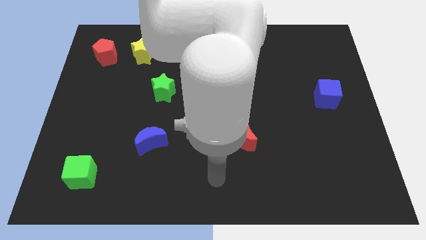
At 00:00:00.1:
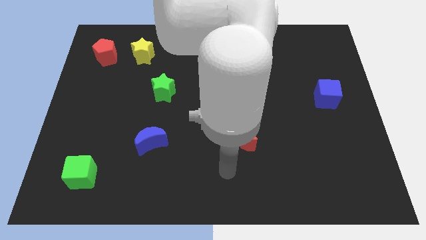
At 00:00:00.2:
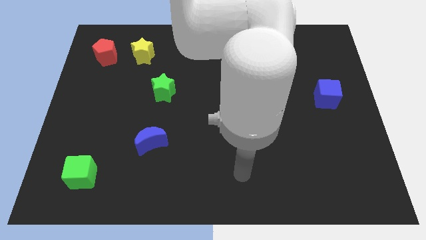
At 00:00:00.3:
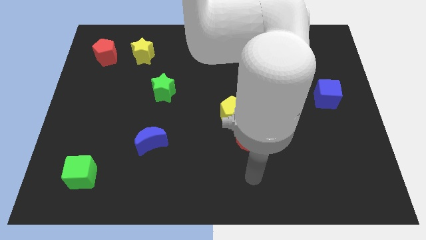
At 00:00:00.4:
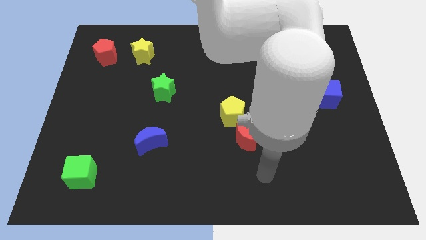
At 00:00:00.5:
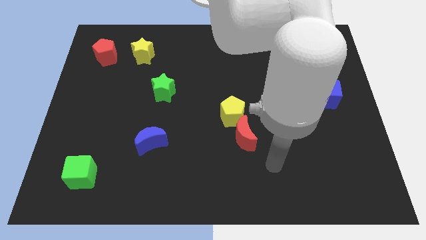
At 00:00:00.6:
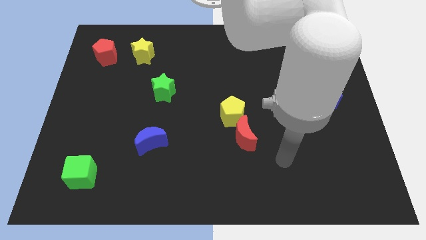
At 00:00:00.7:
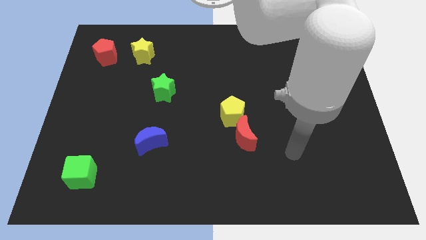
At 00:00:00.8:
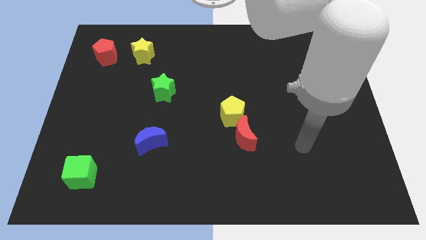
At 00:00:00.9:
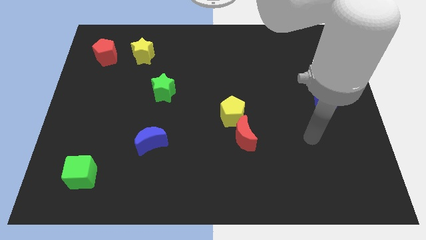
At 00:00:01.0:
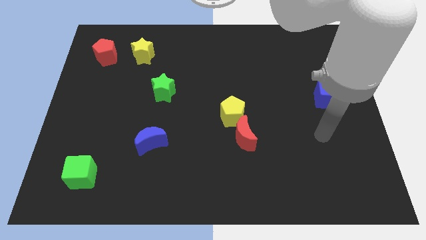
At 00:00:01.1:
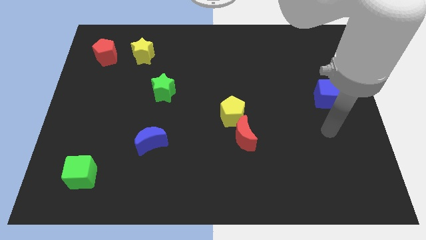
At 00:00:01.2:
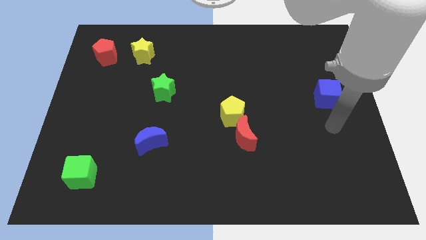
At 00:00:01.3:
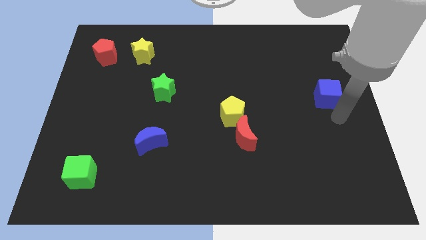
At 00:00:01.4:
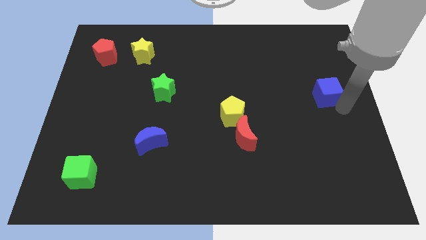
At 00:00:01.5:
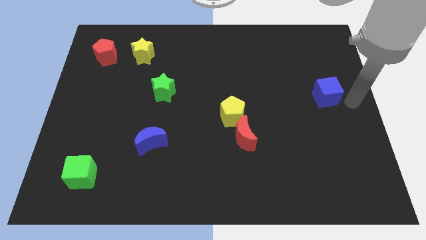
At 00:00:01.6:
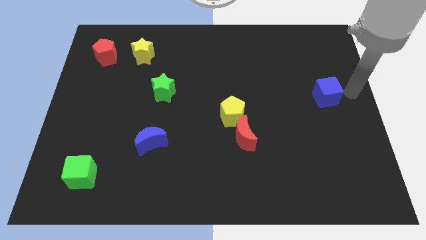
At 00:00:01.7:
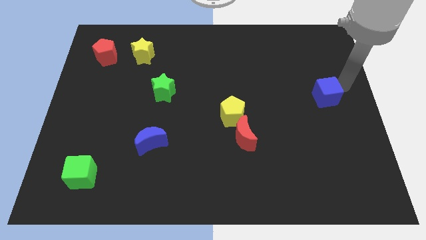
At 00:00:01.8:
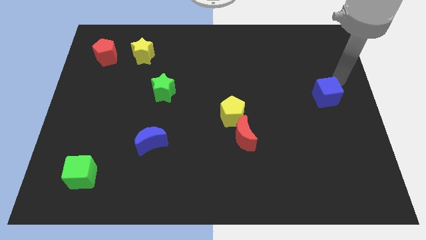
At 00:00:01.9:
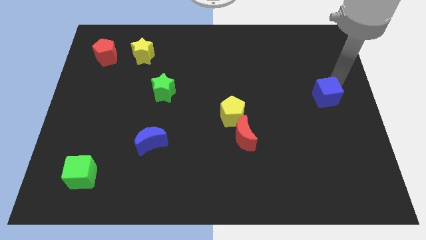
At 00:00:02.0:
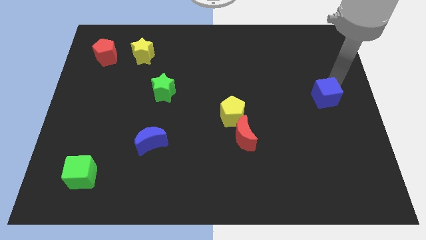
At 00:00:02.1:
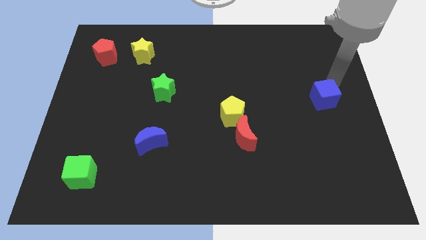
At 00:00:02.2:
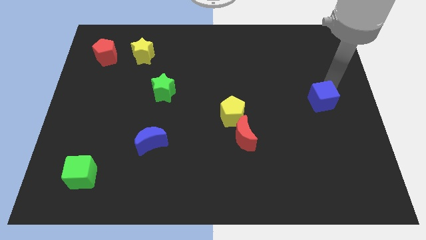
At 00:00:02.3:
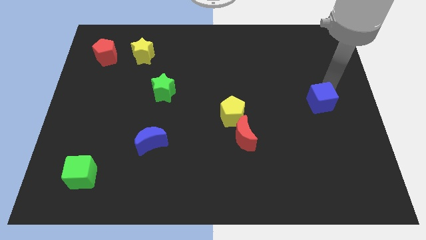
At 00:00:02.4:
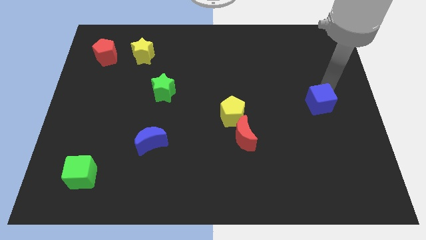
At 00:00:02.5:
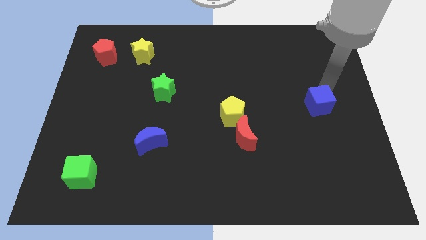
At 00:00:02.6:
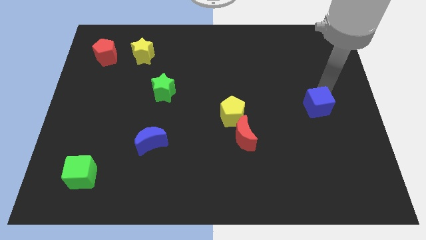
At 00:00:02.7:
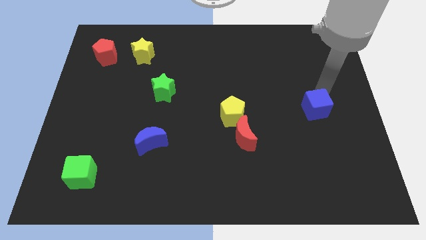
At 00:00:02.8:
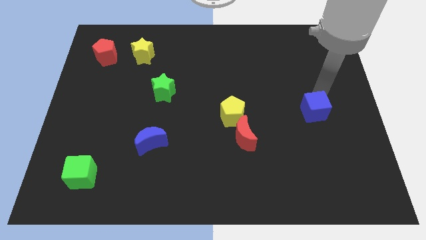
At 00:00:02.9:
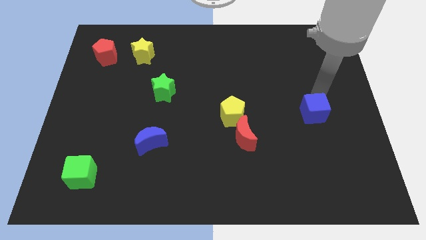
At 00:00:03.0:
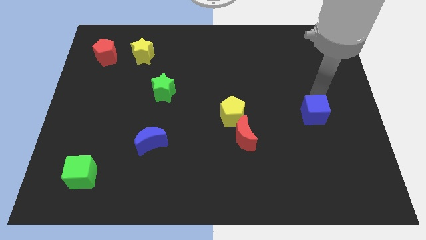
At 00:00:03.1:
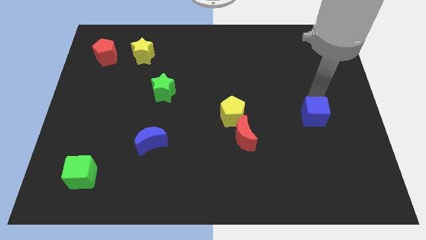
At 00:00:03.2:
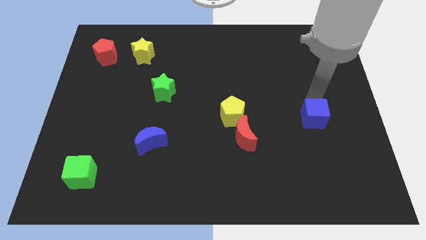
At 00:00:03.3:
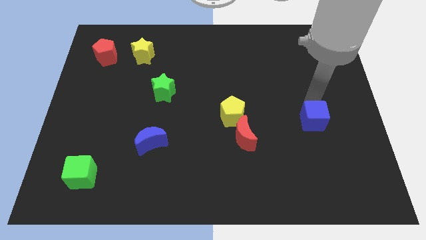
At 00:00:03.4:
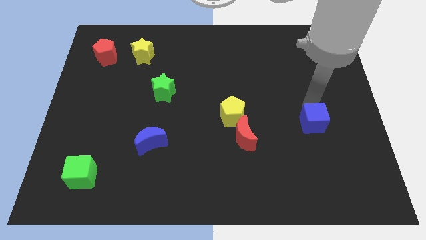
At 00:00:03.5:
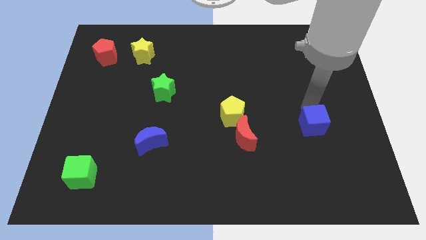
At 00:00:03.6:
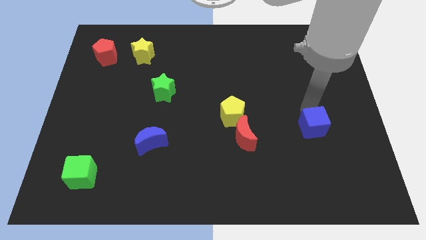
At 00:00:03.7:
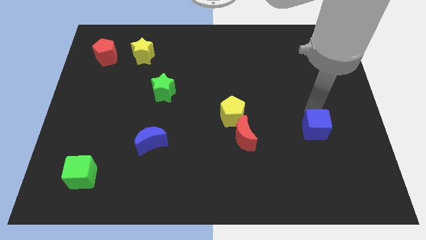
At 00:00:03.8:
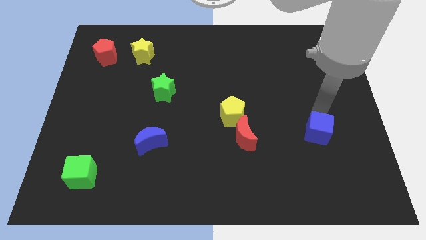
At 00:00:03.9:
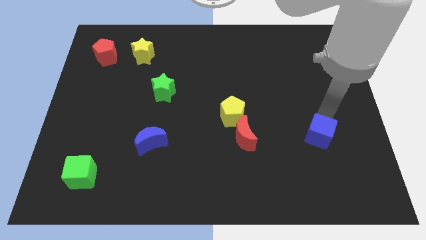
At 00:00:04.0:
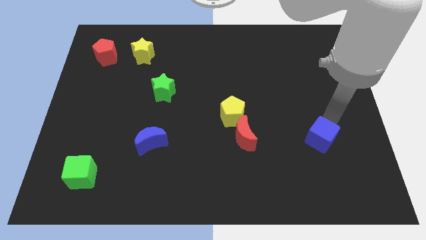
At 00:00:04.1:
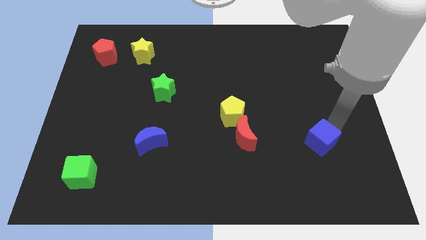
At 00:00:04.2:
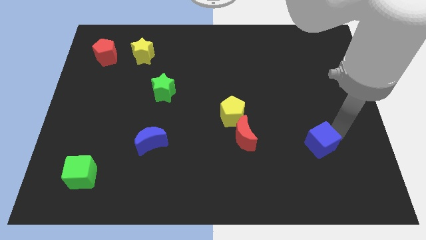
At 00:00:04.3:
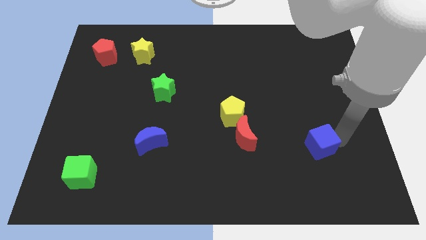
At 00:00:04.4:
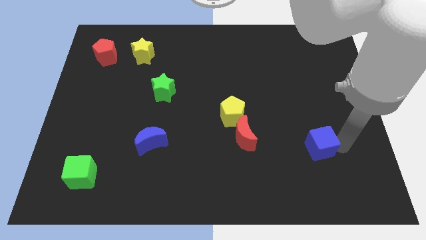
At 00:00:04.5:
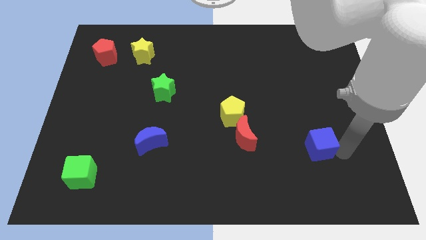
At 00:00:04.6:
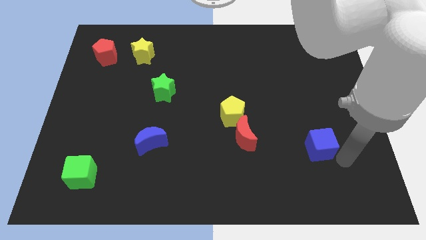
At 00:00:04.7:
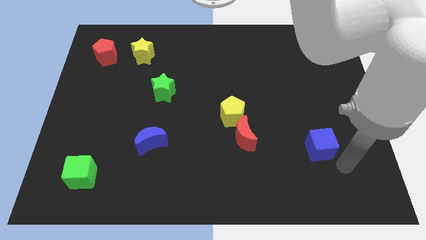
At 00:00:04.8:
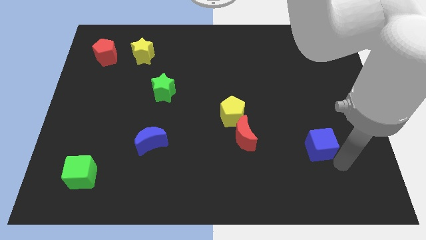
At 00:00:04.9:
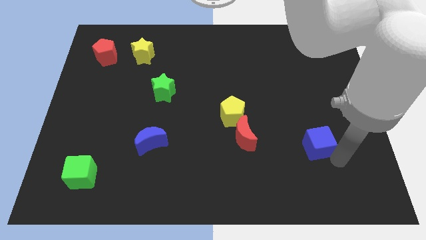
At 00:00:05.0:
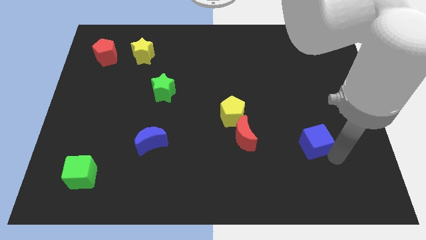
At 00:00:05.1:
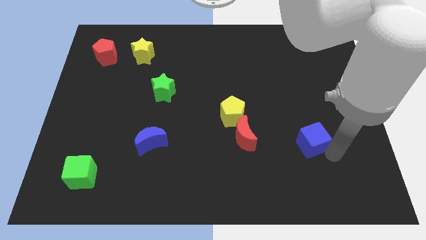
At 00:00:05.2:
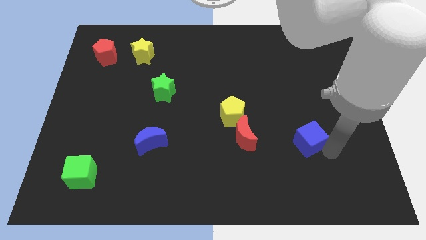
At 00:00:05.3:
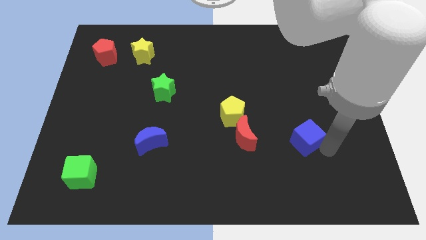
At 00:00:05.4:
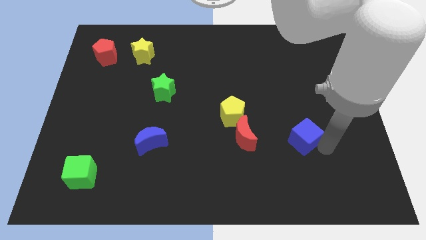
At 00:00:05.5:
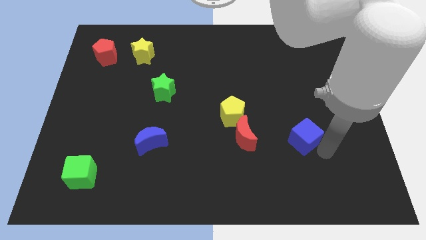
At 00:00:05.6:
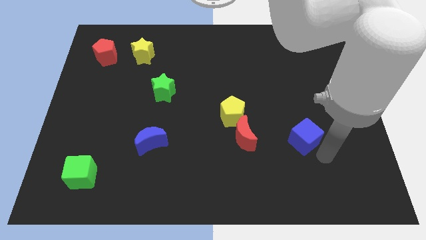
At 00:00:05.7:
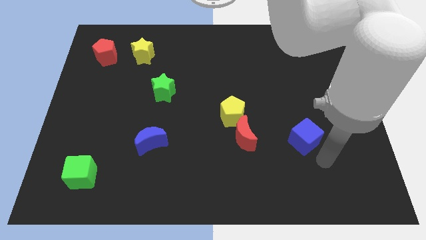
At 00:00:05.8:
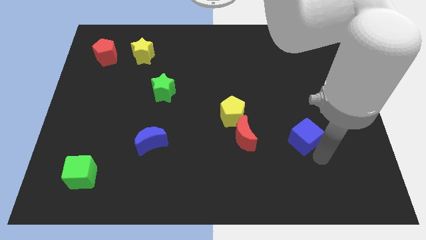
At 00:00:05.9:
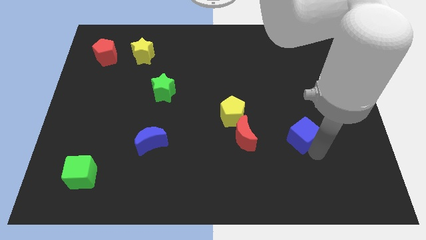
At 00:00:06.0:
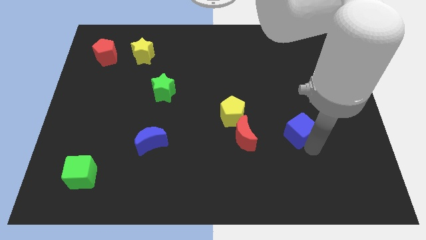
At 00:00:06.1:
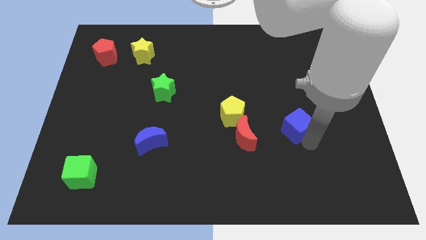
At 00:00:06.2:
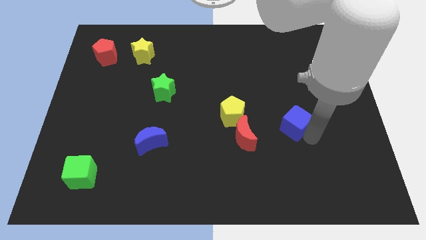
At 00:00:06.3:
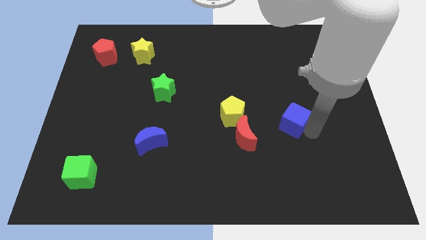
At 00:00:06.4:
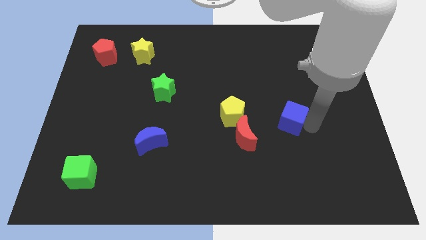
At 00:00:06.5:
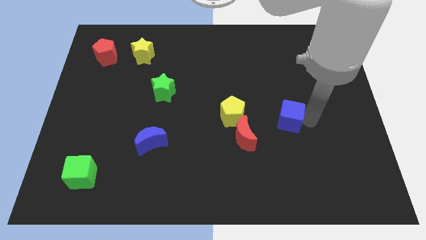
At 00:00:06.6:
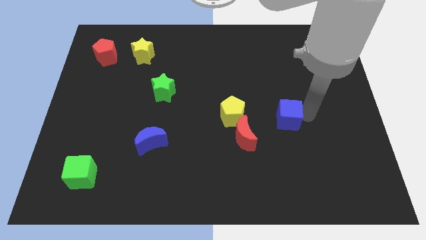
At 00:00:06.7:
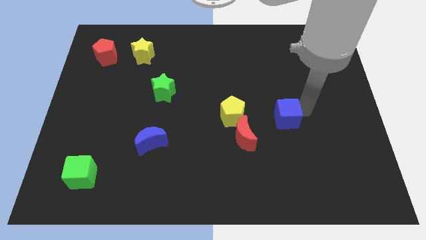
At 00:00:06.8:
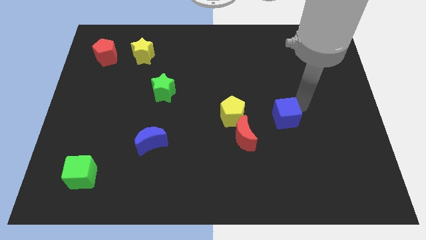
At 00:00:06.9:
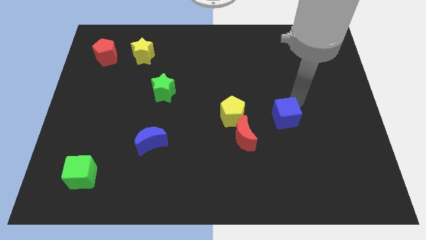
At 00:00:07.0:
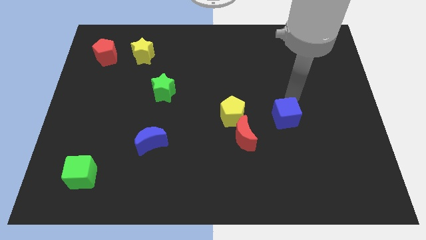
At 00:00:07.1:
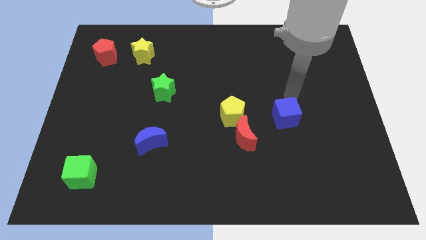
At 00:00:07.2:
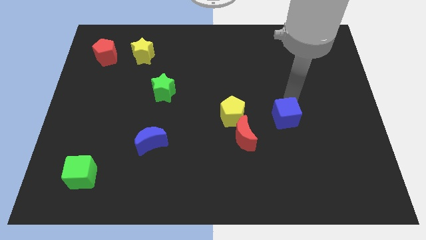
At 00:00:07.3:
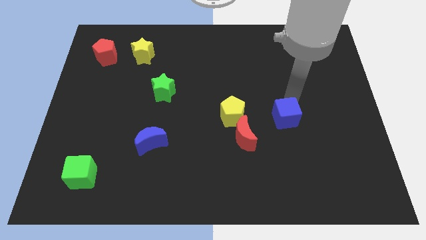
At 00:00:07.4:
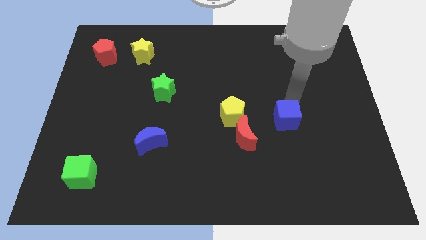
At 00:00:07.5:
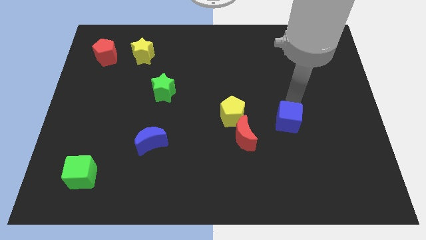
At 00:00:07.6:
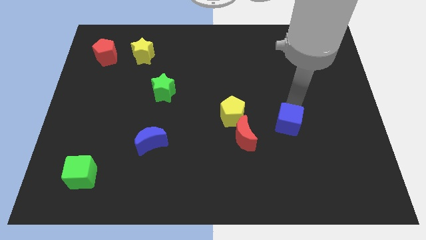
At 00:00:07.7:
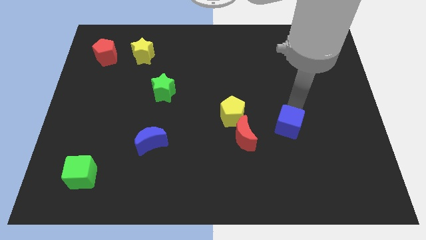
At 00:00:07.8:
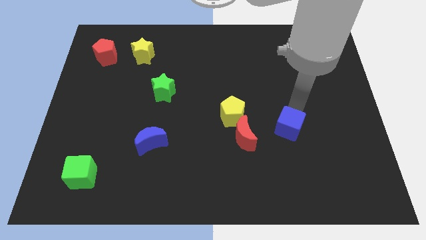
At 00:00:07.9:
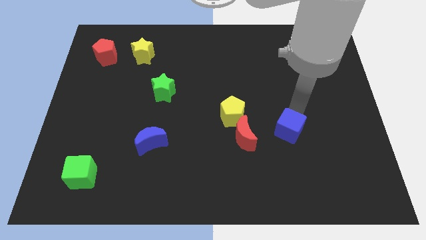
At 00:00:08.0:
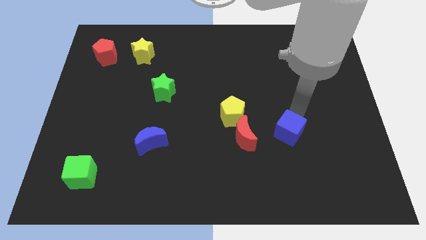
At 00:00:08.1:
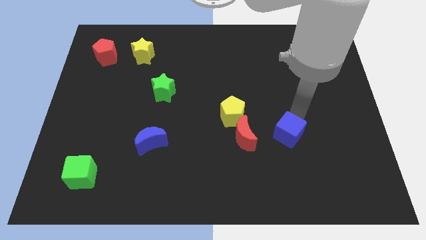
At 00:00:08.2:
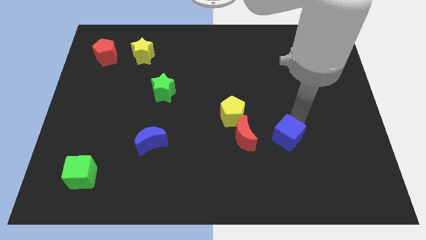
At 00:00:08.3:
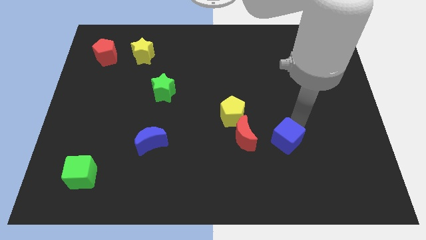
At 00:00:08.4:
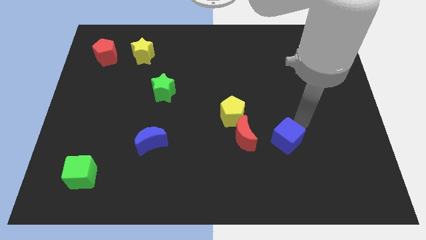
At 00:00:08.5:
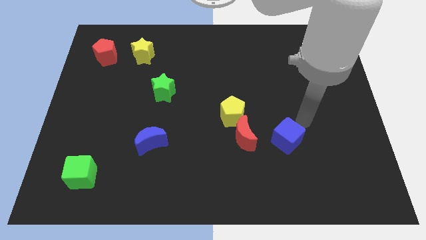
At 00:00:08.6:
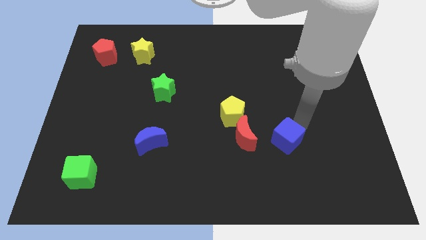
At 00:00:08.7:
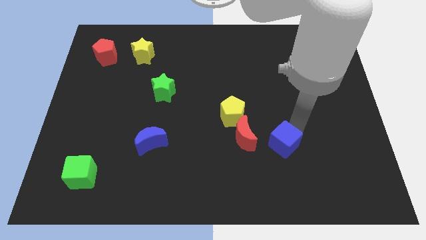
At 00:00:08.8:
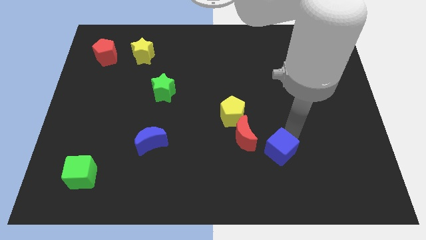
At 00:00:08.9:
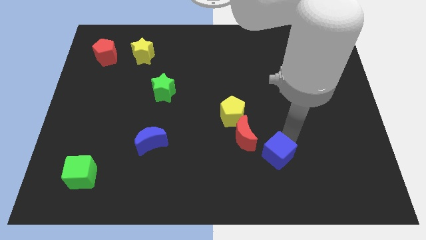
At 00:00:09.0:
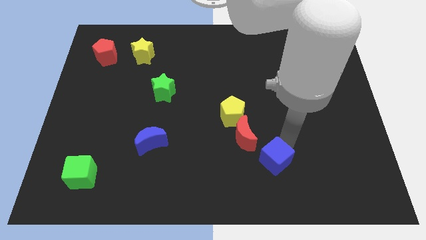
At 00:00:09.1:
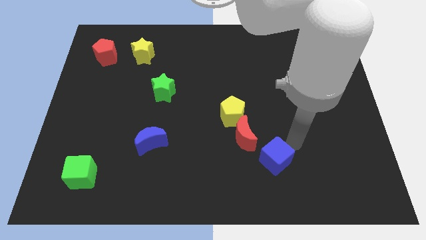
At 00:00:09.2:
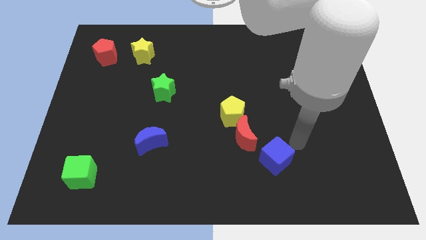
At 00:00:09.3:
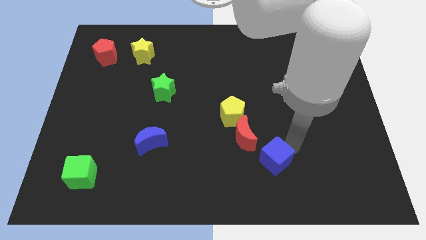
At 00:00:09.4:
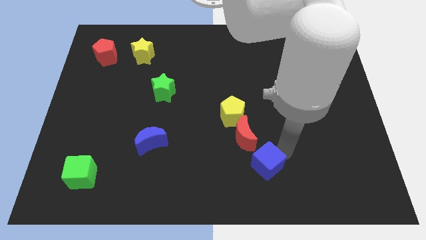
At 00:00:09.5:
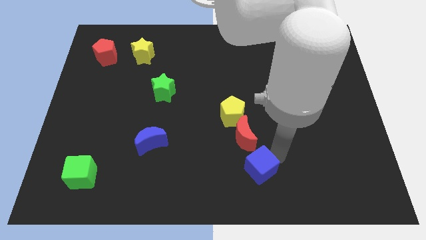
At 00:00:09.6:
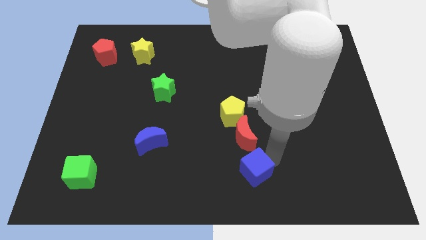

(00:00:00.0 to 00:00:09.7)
push the blue cube to the bottom side
